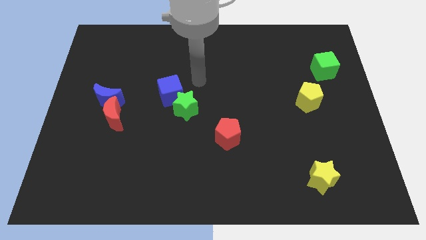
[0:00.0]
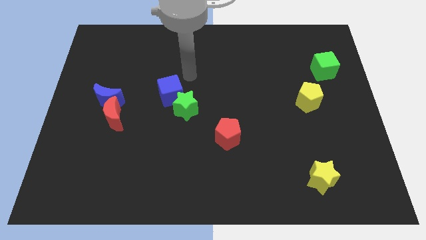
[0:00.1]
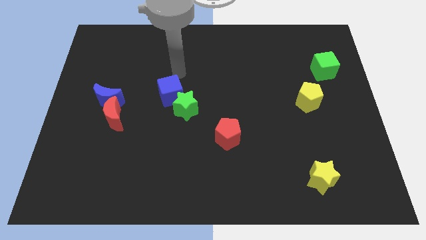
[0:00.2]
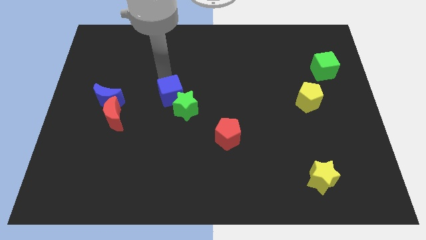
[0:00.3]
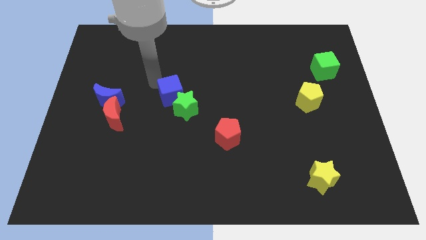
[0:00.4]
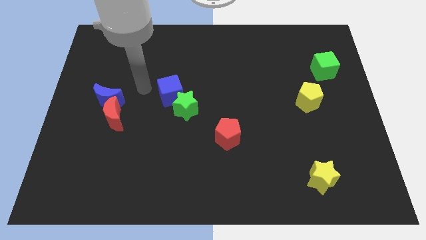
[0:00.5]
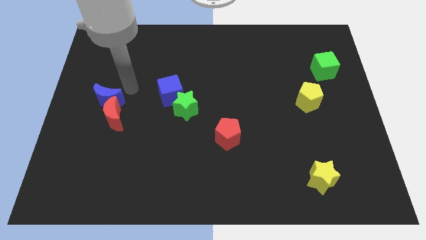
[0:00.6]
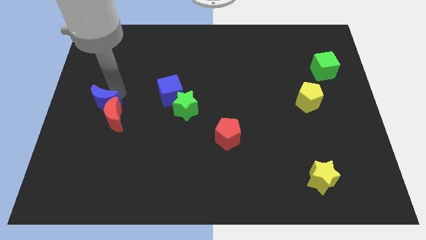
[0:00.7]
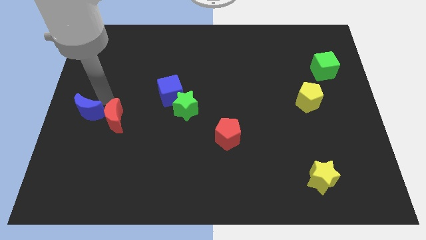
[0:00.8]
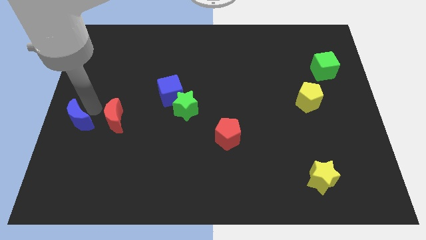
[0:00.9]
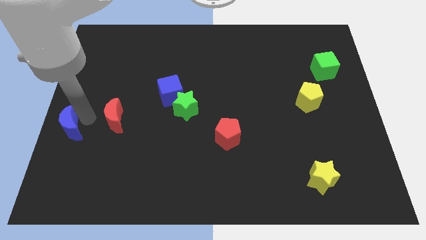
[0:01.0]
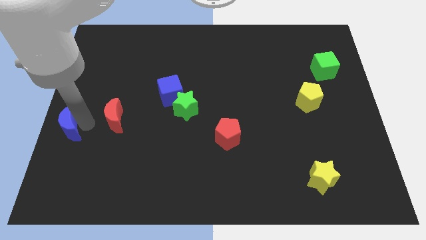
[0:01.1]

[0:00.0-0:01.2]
move the red moon away from the blue moon

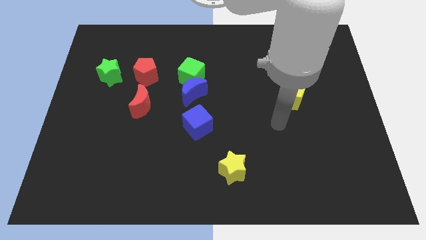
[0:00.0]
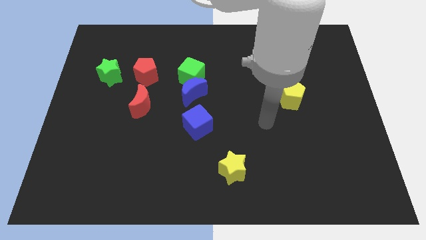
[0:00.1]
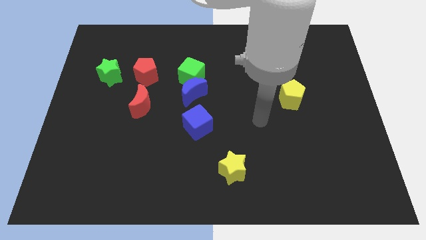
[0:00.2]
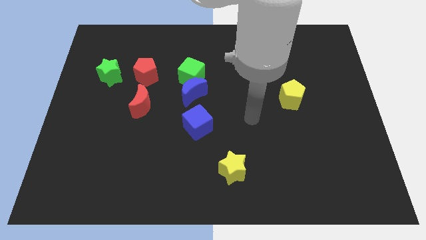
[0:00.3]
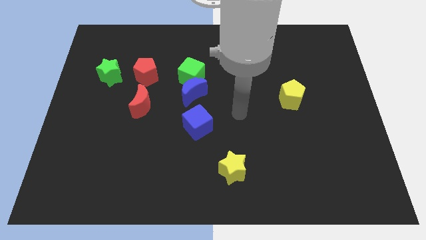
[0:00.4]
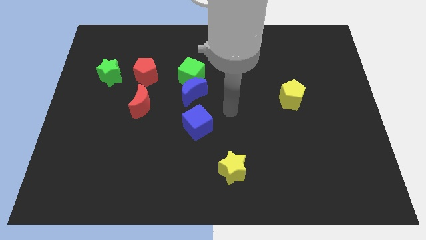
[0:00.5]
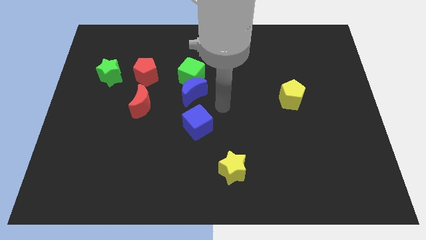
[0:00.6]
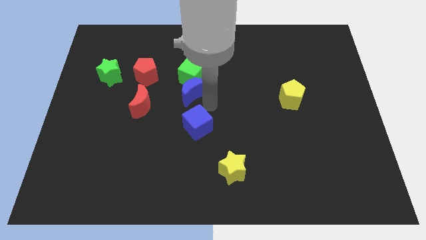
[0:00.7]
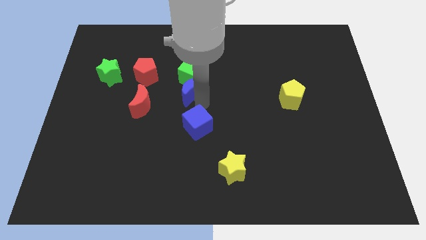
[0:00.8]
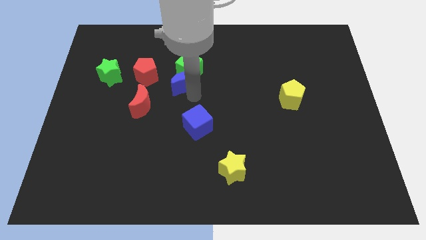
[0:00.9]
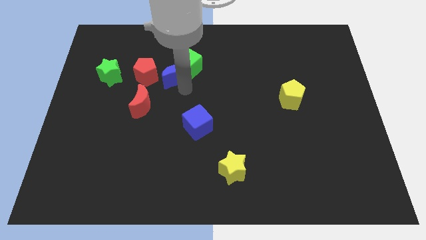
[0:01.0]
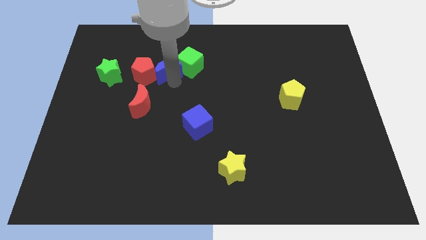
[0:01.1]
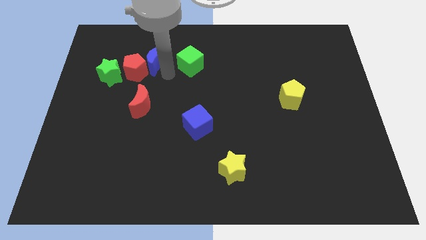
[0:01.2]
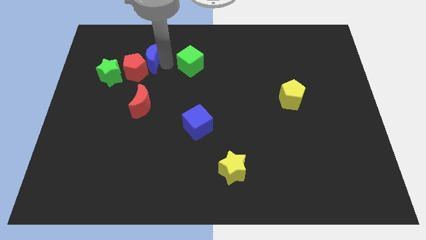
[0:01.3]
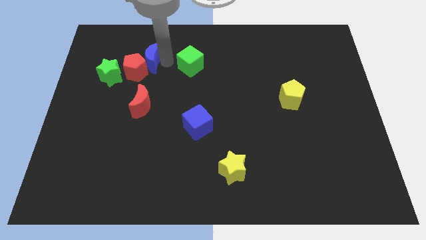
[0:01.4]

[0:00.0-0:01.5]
separate the green cube from the blue moon

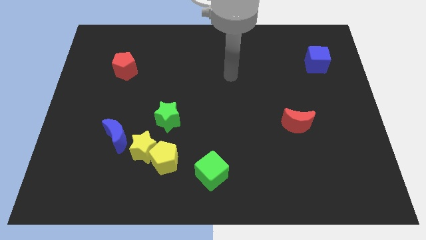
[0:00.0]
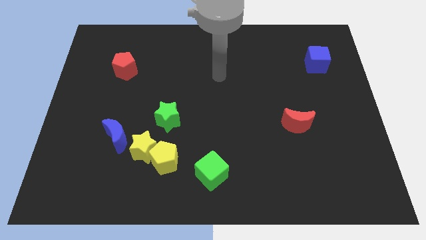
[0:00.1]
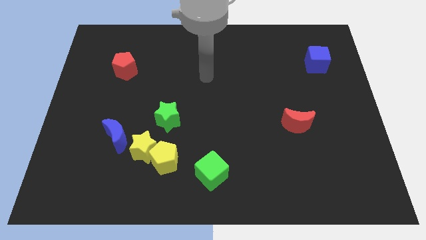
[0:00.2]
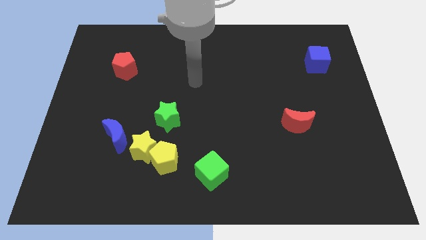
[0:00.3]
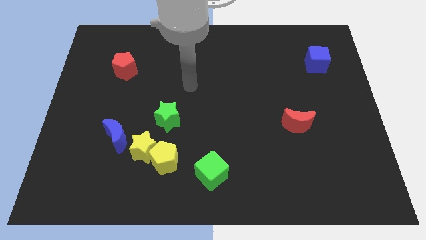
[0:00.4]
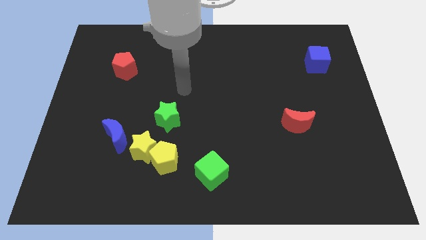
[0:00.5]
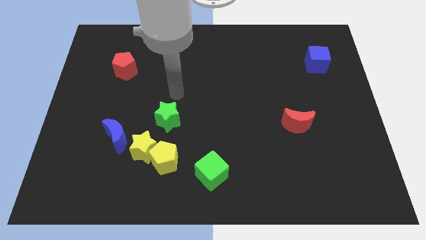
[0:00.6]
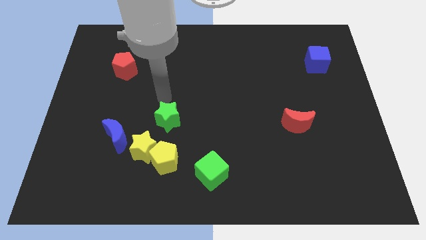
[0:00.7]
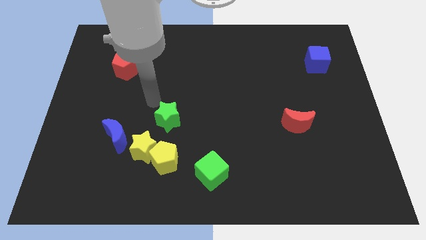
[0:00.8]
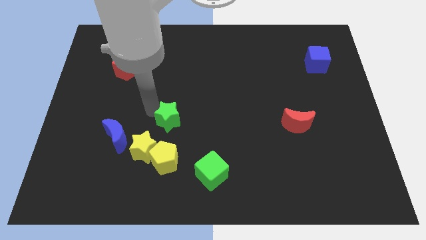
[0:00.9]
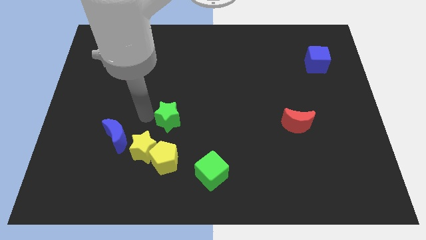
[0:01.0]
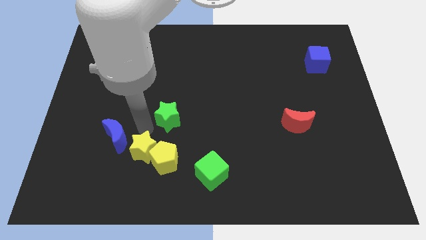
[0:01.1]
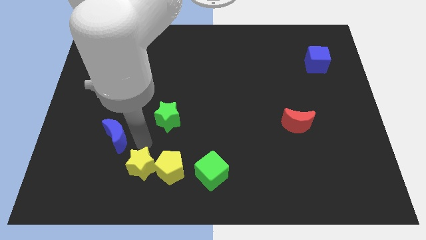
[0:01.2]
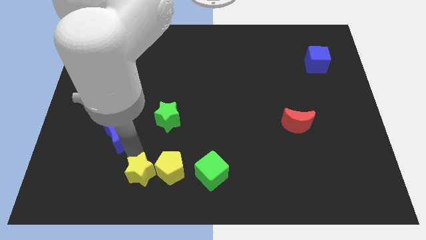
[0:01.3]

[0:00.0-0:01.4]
separate the blue moon from the yellow star

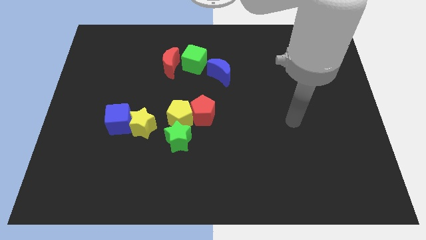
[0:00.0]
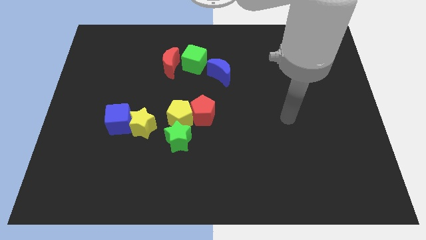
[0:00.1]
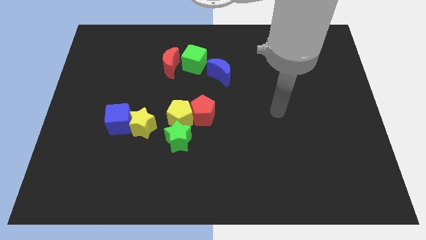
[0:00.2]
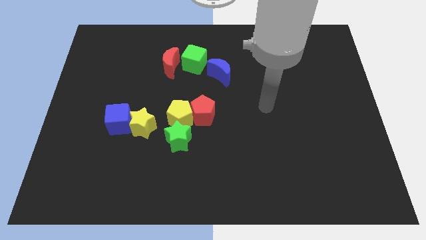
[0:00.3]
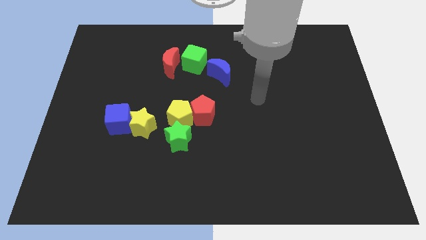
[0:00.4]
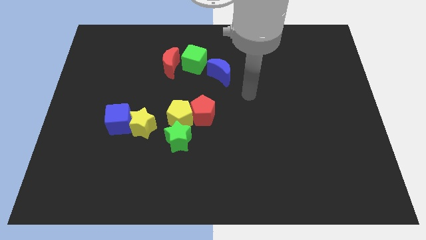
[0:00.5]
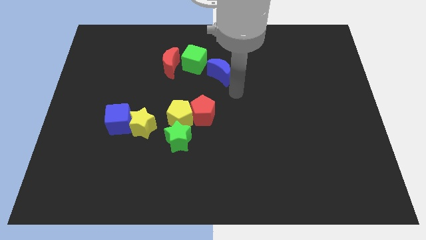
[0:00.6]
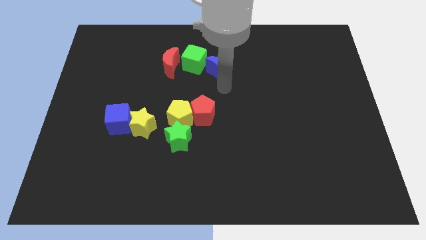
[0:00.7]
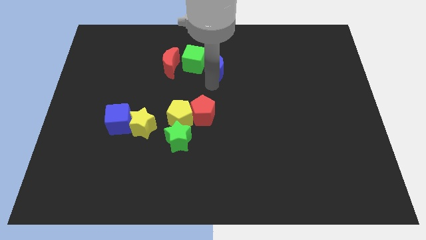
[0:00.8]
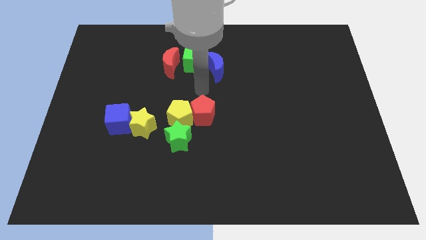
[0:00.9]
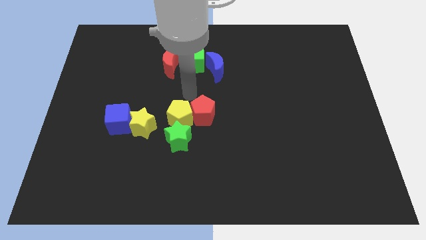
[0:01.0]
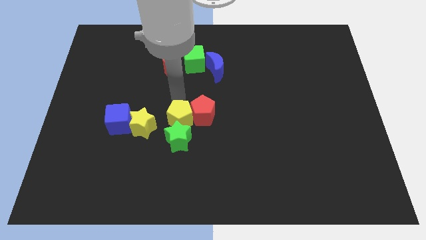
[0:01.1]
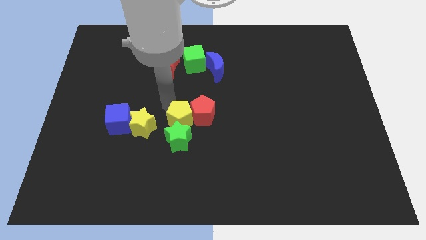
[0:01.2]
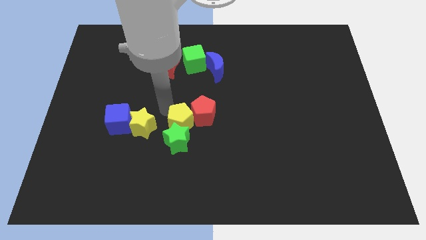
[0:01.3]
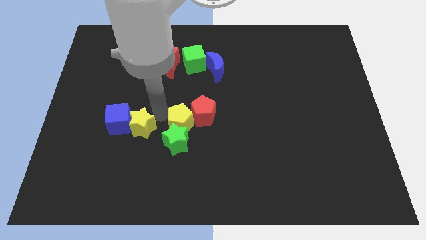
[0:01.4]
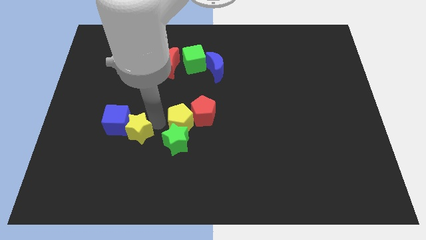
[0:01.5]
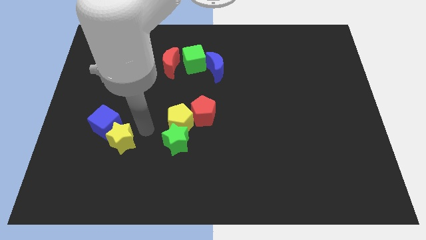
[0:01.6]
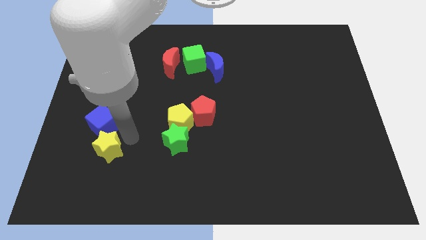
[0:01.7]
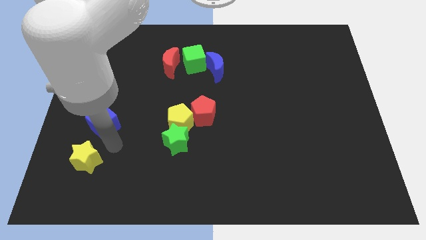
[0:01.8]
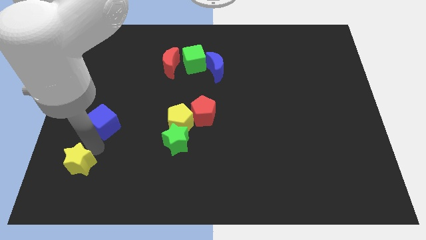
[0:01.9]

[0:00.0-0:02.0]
move the blue cube away from the yellow star

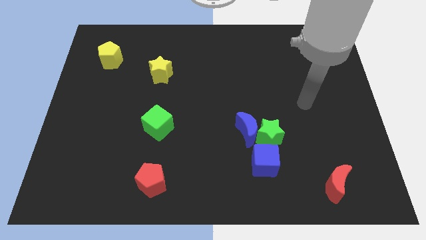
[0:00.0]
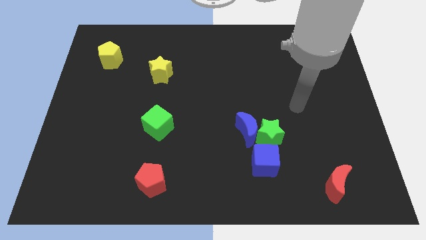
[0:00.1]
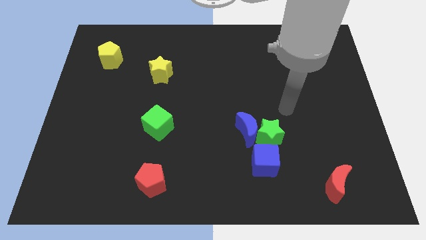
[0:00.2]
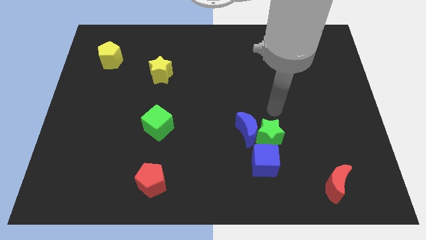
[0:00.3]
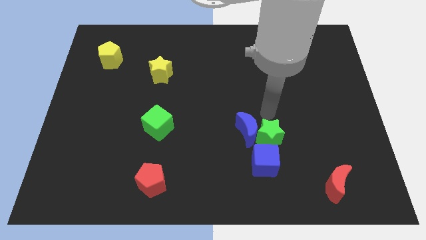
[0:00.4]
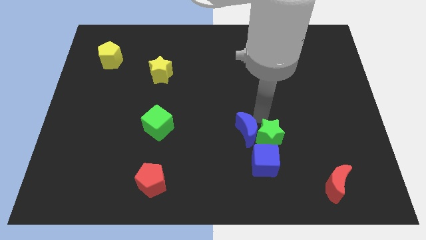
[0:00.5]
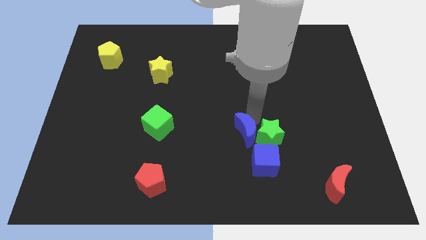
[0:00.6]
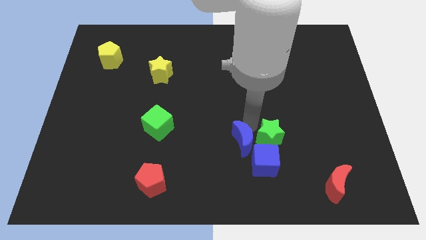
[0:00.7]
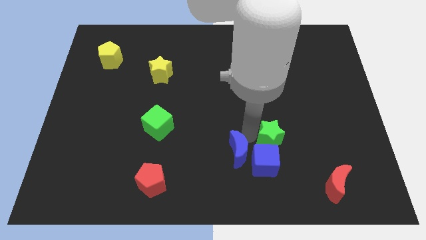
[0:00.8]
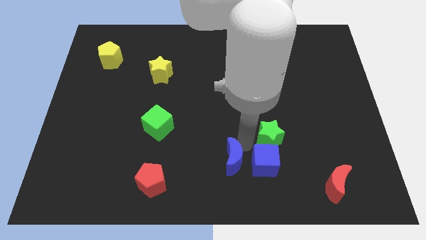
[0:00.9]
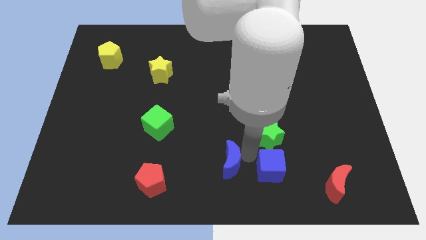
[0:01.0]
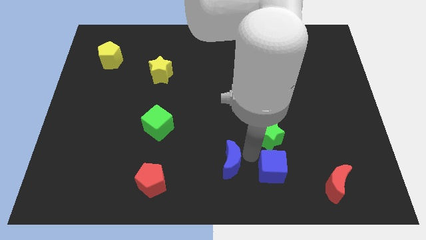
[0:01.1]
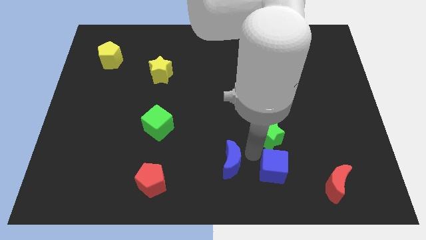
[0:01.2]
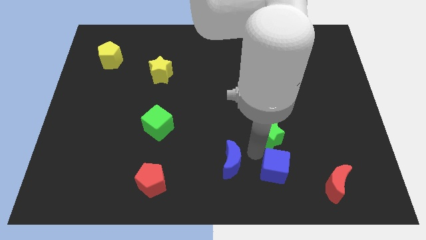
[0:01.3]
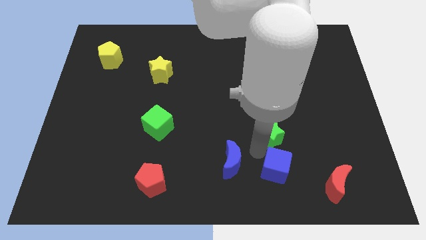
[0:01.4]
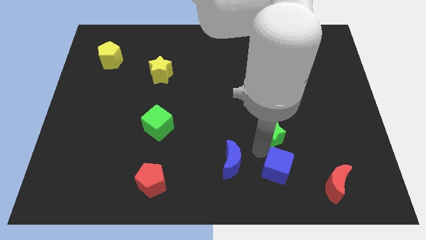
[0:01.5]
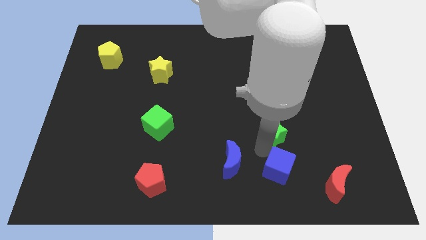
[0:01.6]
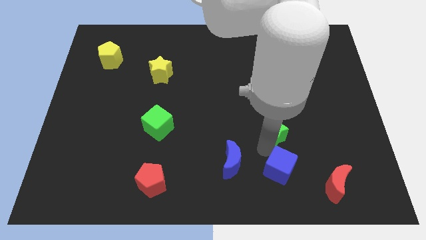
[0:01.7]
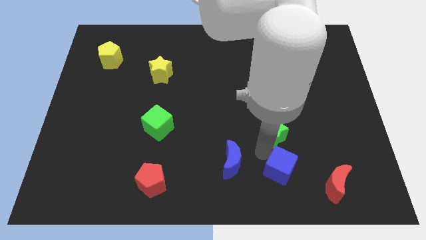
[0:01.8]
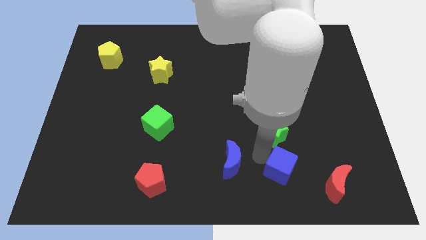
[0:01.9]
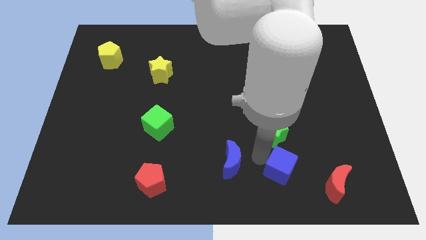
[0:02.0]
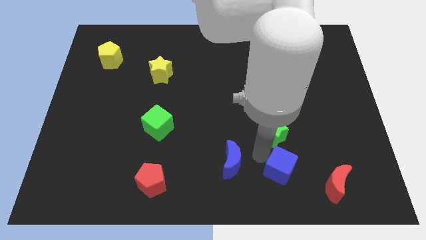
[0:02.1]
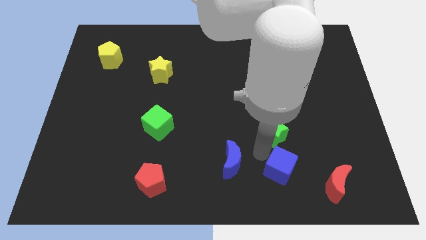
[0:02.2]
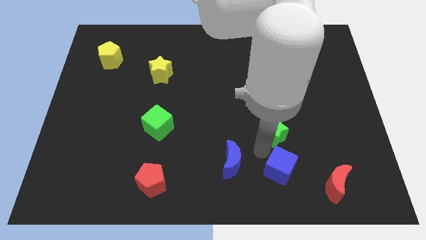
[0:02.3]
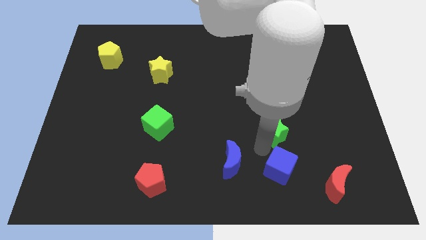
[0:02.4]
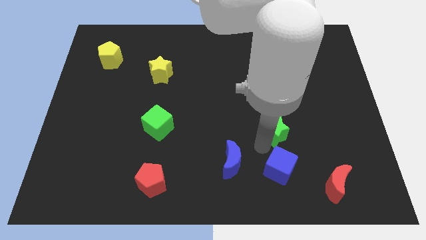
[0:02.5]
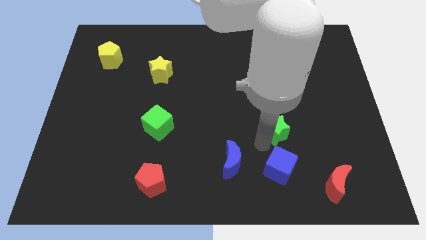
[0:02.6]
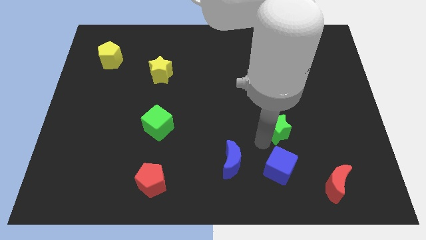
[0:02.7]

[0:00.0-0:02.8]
separate the green star from the blue moon and blue cube

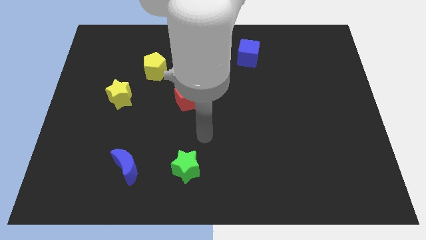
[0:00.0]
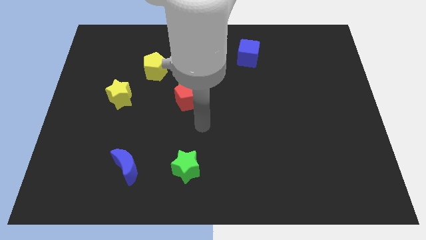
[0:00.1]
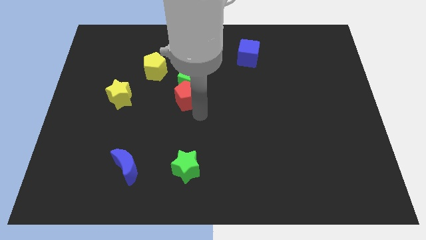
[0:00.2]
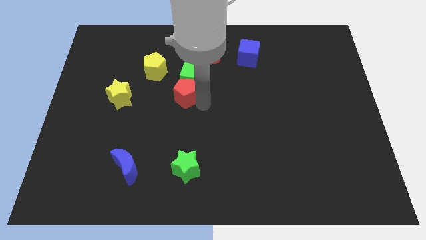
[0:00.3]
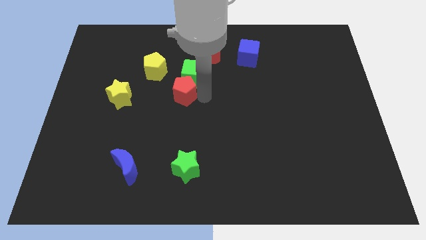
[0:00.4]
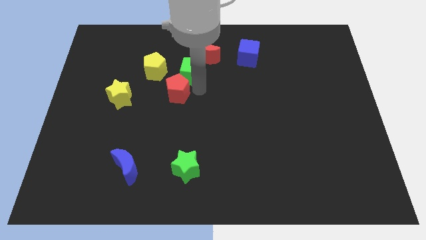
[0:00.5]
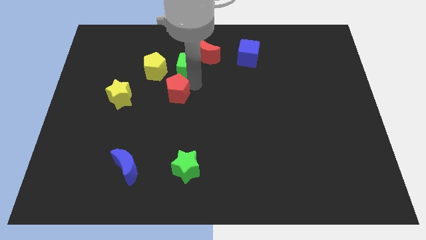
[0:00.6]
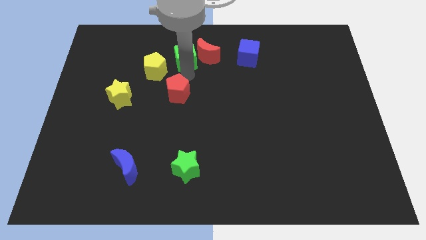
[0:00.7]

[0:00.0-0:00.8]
separate the red pentagon from the green cube
